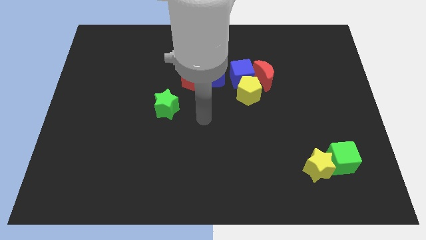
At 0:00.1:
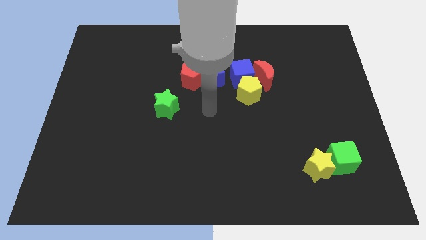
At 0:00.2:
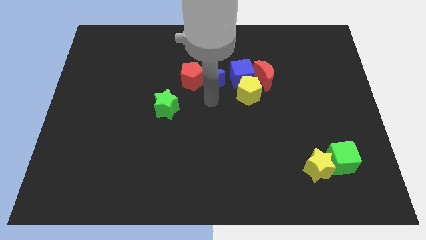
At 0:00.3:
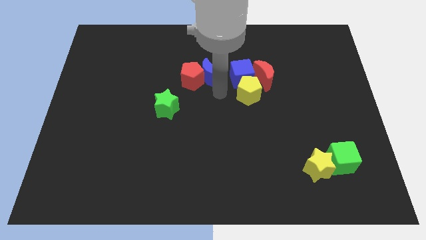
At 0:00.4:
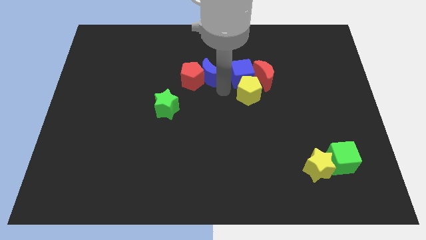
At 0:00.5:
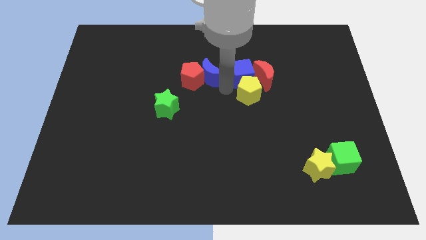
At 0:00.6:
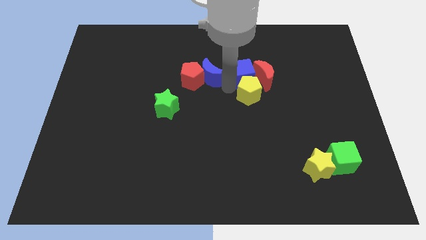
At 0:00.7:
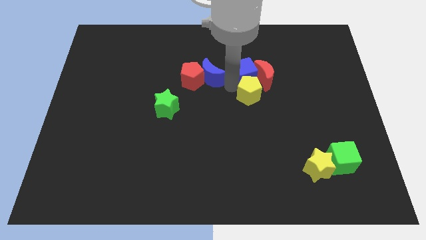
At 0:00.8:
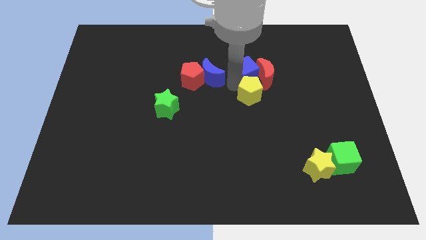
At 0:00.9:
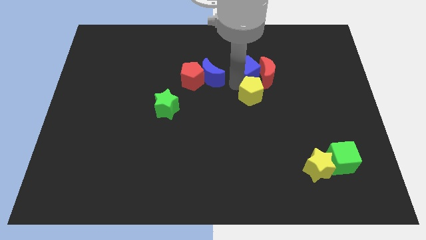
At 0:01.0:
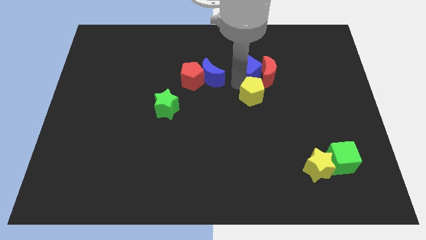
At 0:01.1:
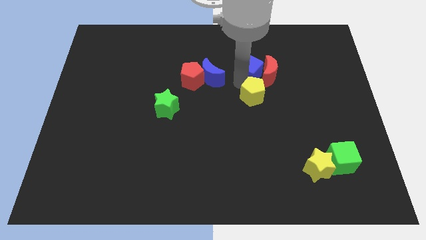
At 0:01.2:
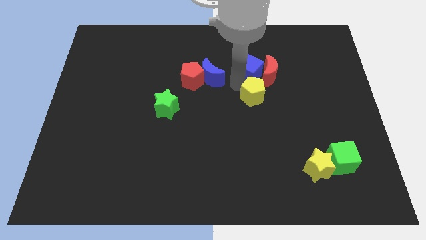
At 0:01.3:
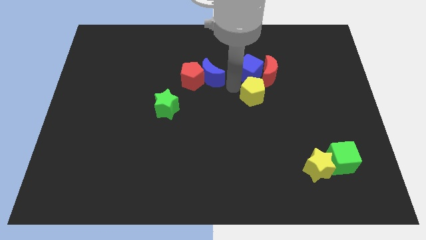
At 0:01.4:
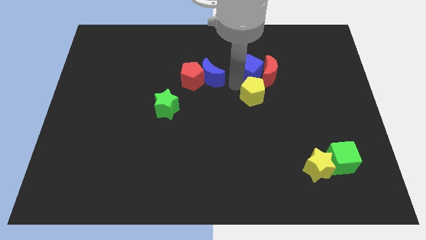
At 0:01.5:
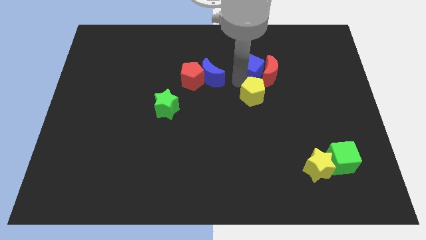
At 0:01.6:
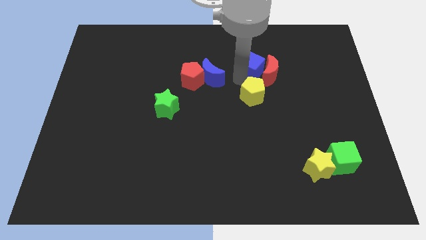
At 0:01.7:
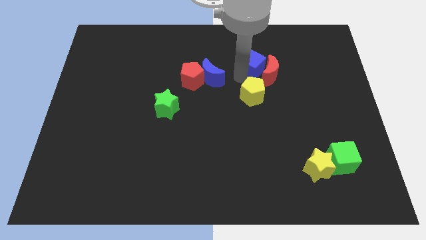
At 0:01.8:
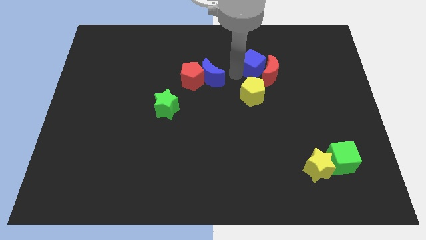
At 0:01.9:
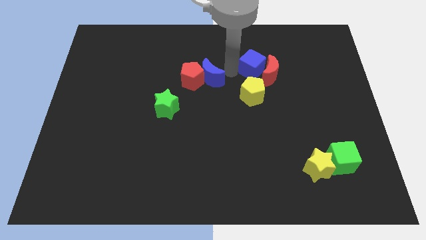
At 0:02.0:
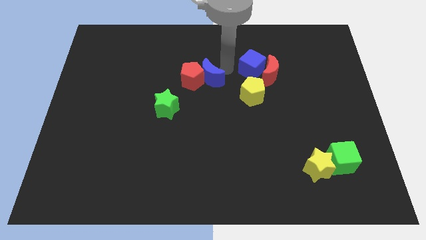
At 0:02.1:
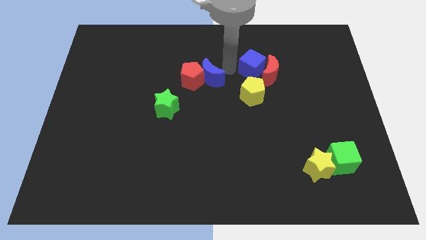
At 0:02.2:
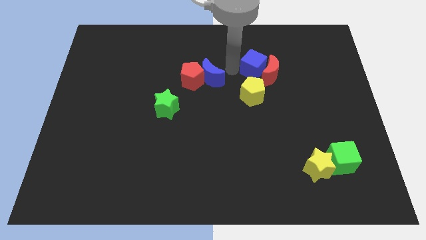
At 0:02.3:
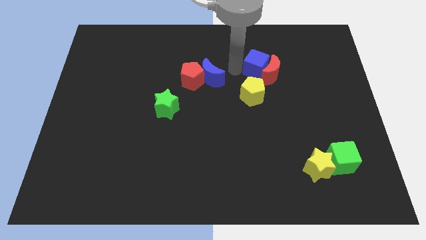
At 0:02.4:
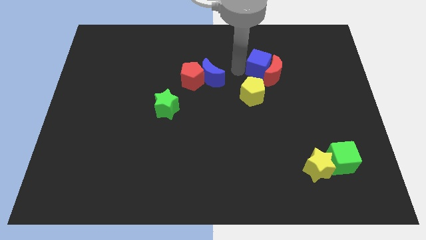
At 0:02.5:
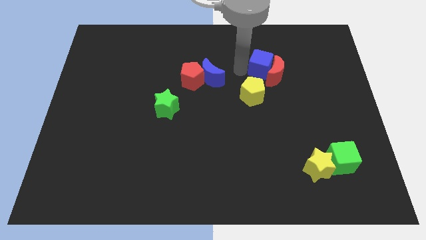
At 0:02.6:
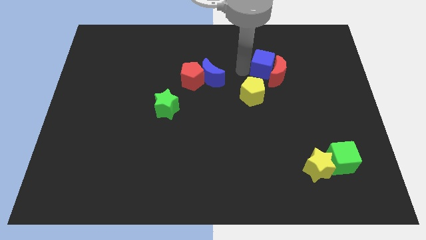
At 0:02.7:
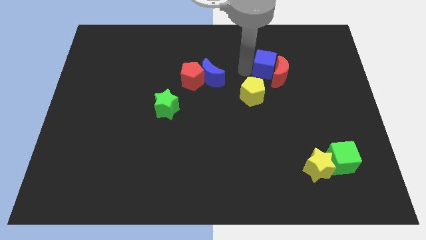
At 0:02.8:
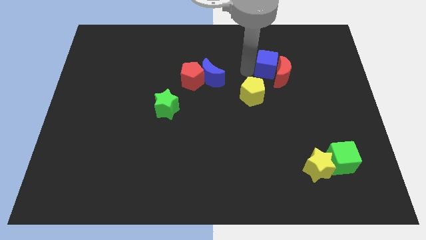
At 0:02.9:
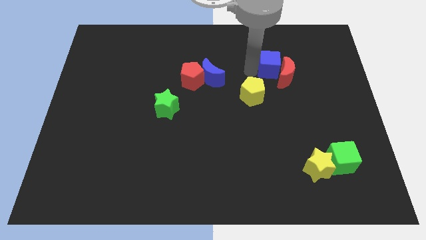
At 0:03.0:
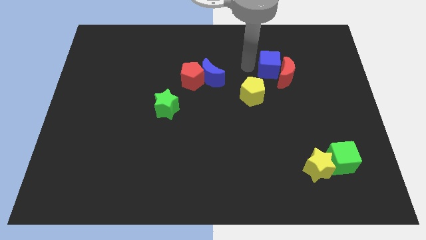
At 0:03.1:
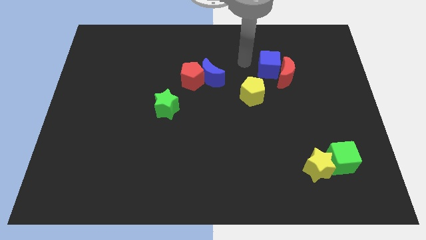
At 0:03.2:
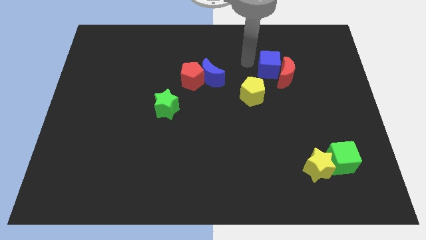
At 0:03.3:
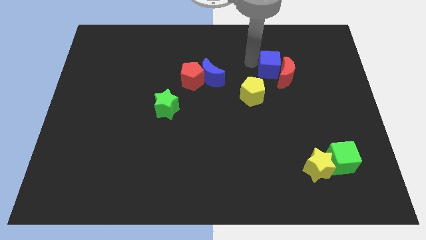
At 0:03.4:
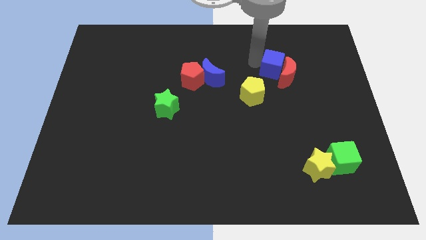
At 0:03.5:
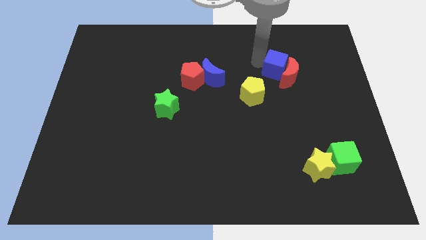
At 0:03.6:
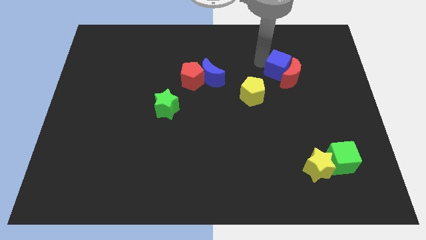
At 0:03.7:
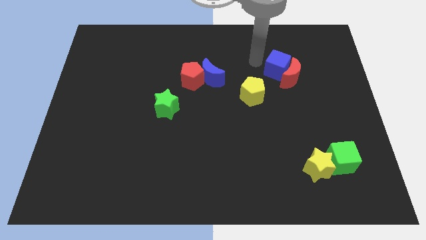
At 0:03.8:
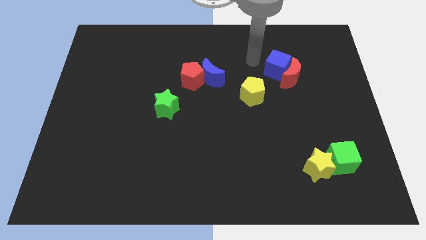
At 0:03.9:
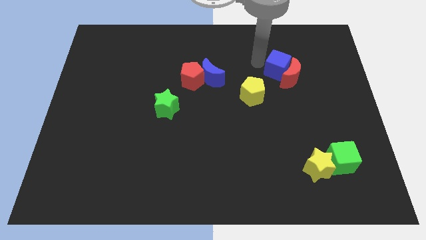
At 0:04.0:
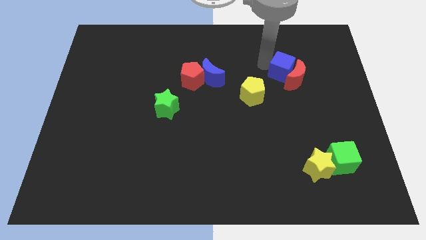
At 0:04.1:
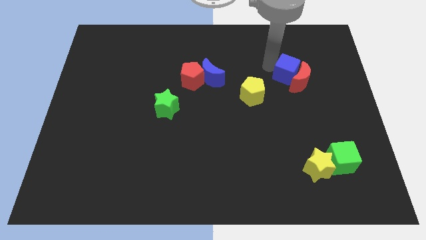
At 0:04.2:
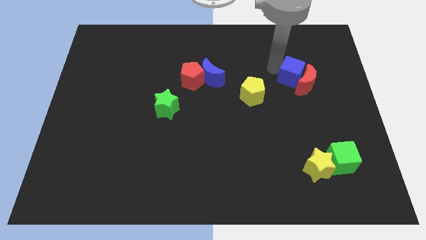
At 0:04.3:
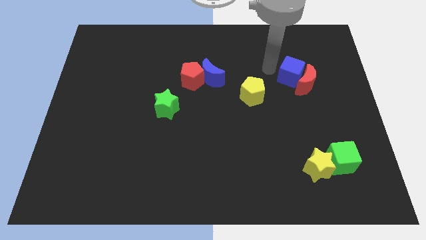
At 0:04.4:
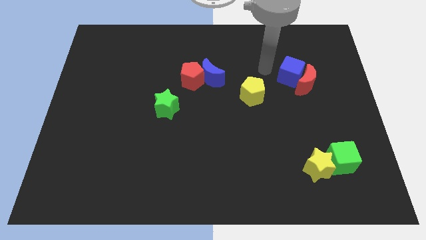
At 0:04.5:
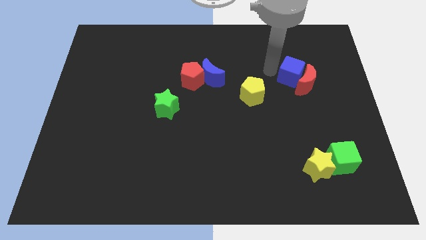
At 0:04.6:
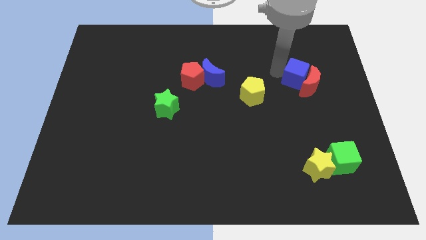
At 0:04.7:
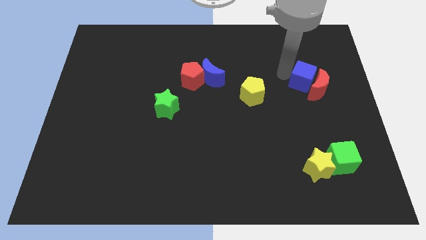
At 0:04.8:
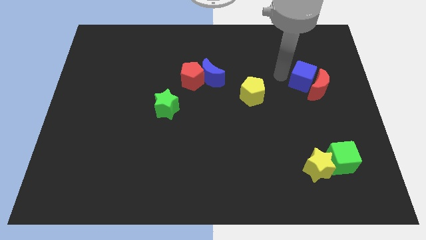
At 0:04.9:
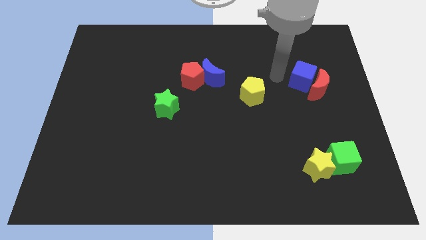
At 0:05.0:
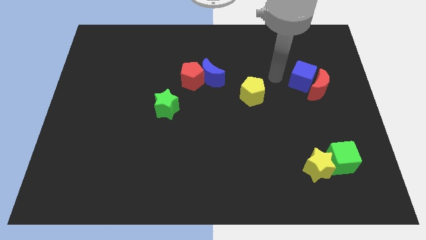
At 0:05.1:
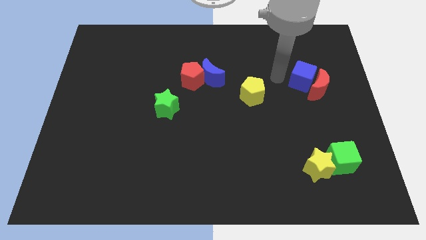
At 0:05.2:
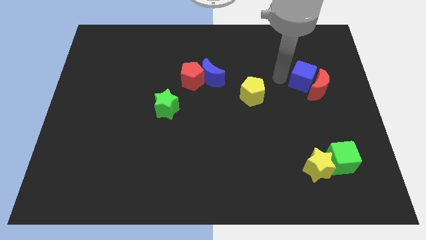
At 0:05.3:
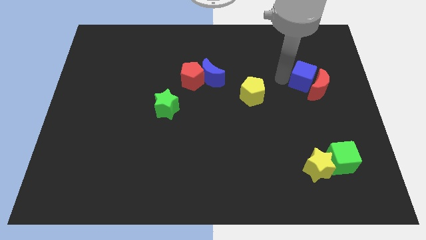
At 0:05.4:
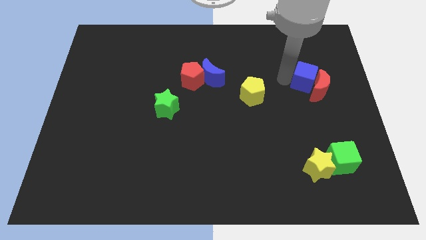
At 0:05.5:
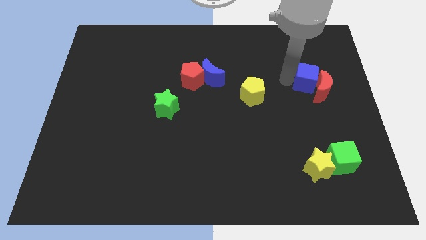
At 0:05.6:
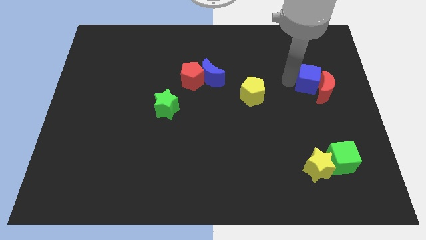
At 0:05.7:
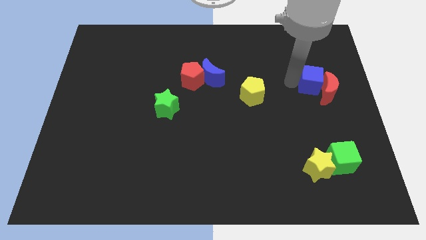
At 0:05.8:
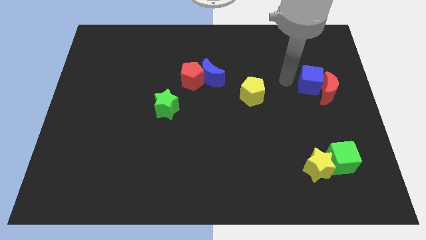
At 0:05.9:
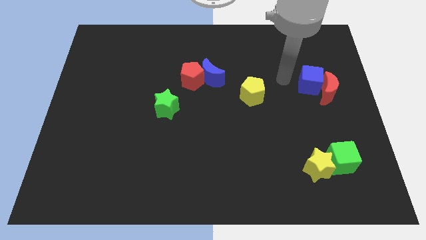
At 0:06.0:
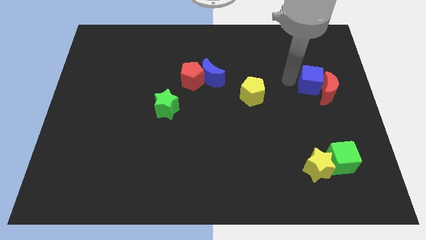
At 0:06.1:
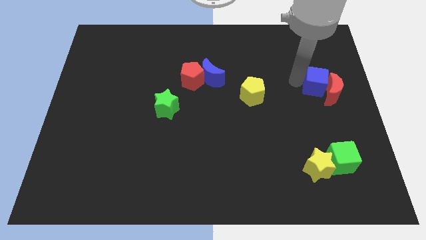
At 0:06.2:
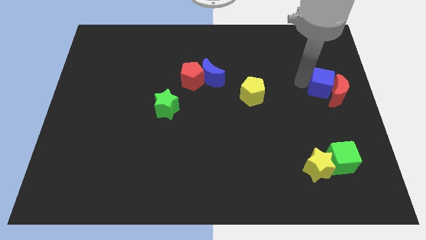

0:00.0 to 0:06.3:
push the blue cube to the right side of the board

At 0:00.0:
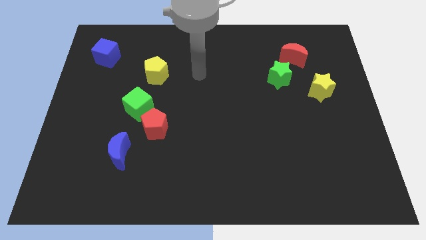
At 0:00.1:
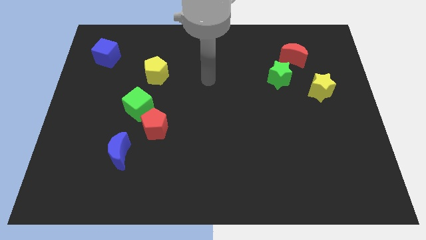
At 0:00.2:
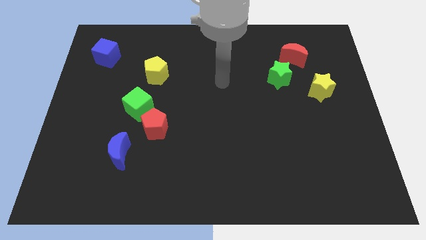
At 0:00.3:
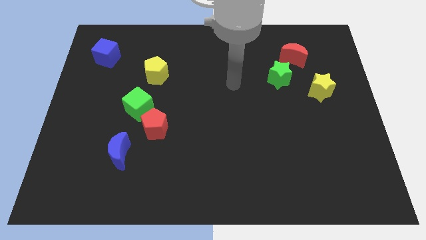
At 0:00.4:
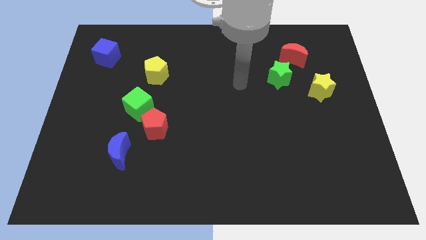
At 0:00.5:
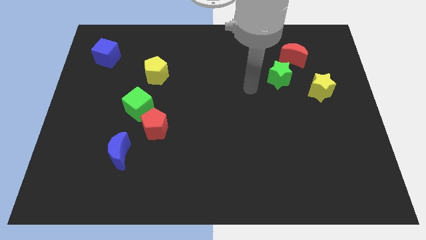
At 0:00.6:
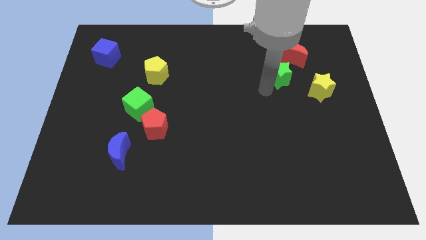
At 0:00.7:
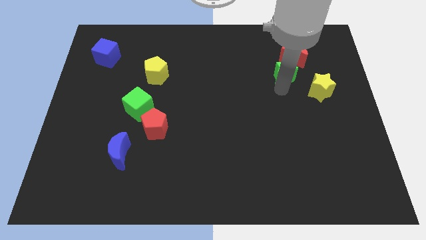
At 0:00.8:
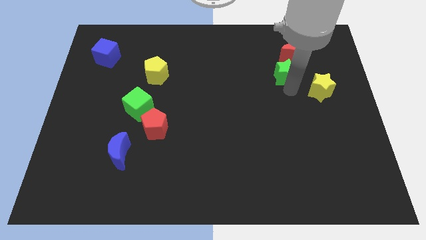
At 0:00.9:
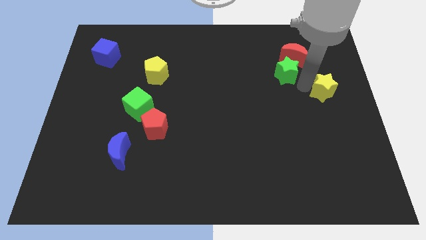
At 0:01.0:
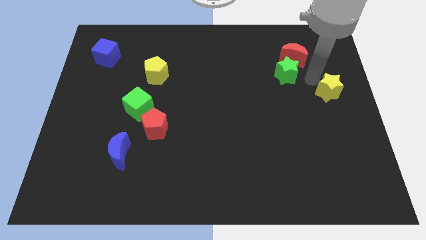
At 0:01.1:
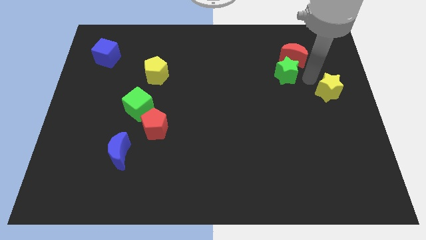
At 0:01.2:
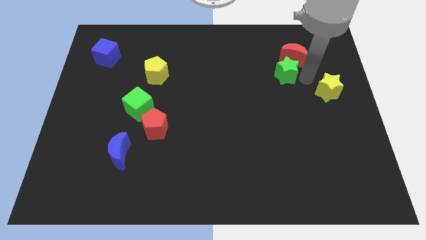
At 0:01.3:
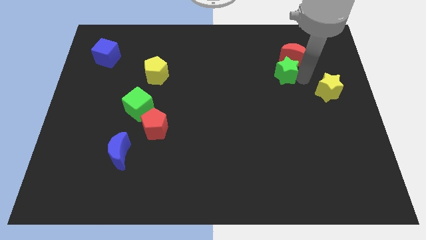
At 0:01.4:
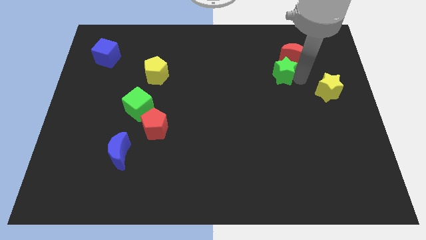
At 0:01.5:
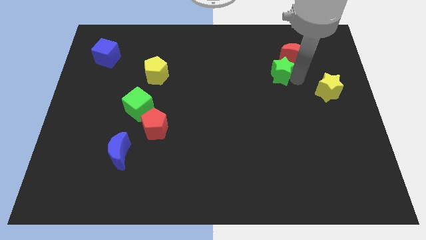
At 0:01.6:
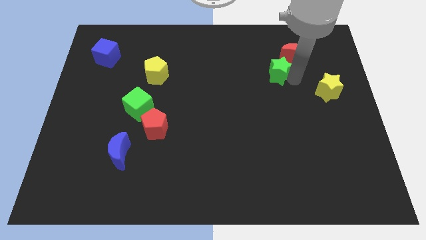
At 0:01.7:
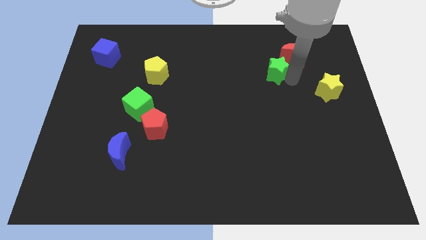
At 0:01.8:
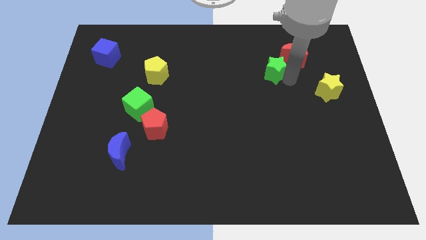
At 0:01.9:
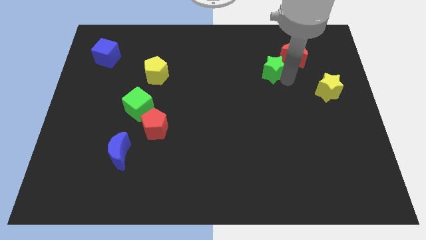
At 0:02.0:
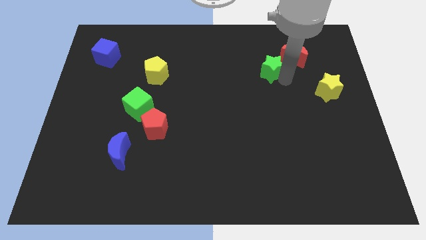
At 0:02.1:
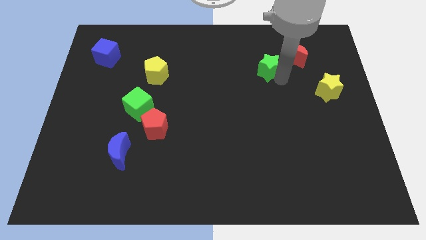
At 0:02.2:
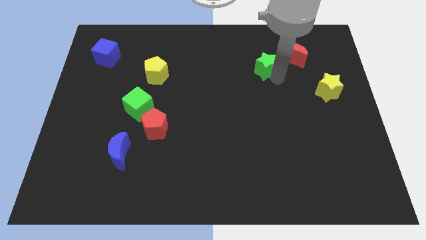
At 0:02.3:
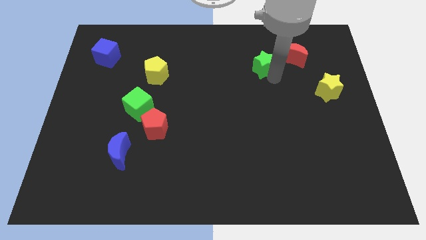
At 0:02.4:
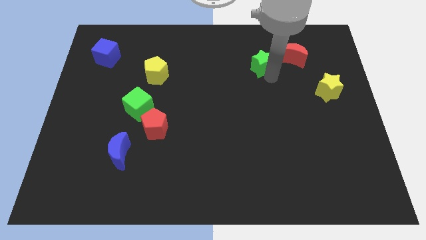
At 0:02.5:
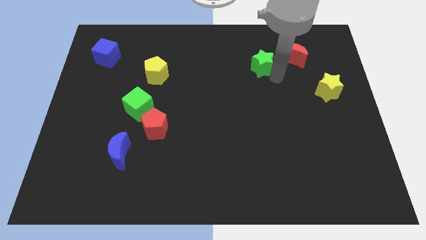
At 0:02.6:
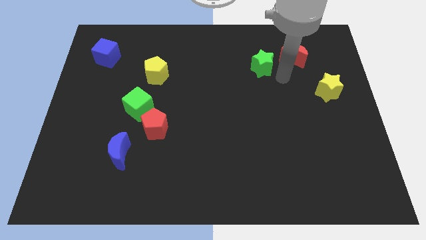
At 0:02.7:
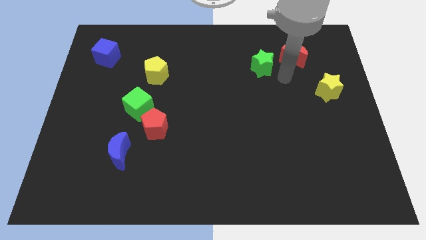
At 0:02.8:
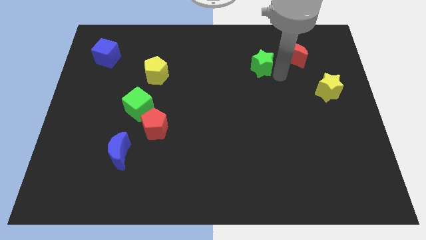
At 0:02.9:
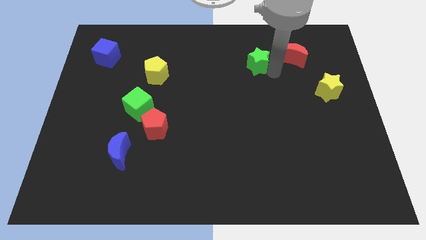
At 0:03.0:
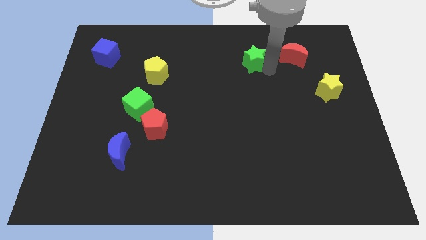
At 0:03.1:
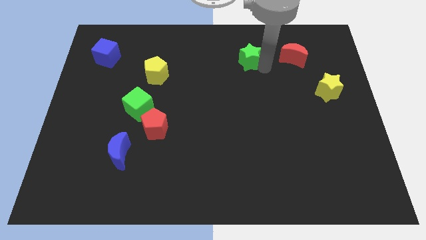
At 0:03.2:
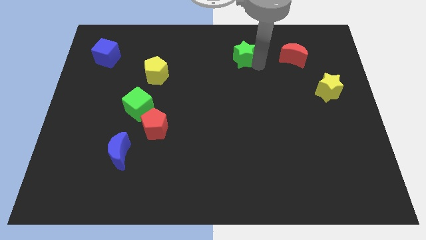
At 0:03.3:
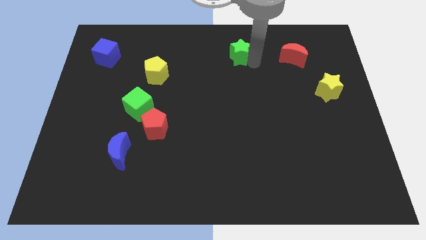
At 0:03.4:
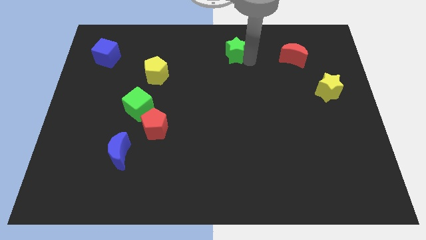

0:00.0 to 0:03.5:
put the green star to the top side
